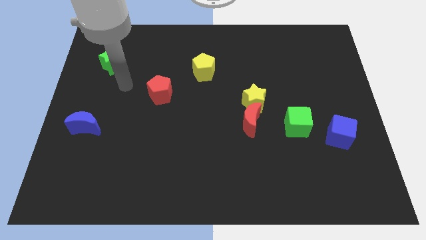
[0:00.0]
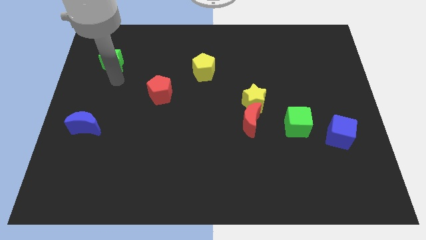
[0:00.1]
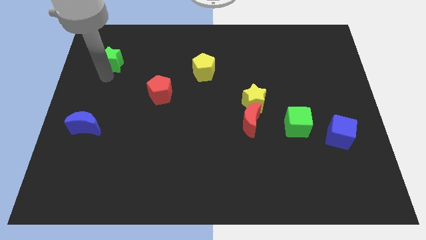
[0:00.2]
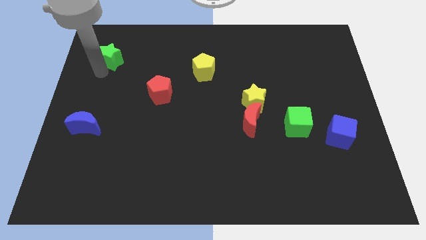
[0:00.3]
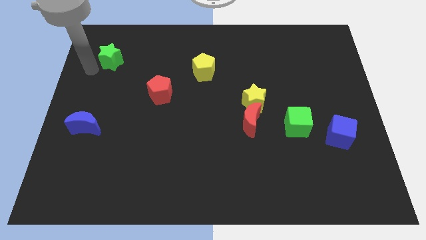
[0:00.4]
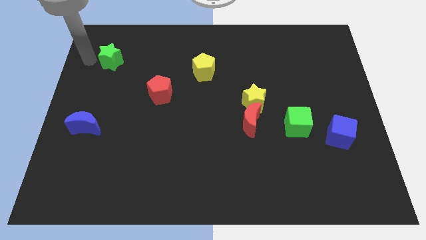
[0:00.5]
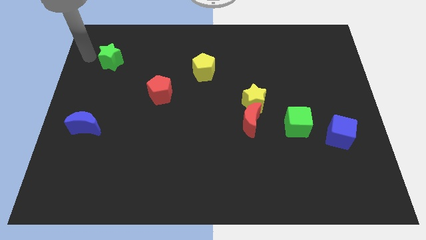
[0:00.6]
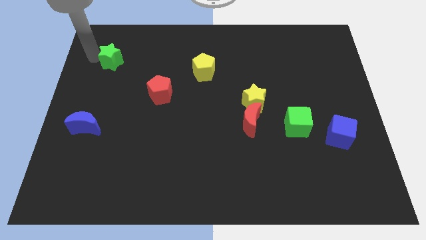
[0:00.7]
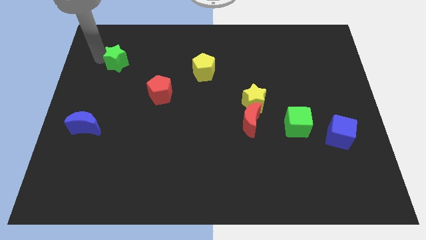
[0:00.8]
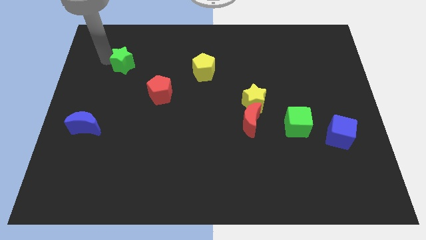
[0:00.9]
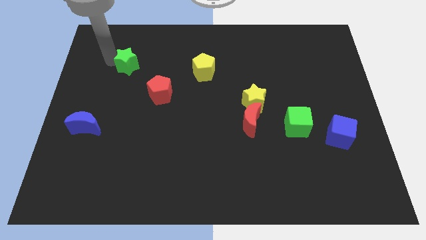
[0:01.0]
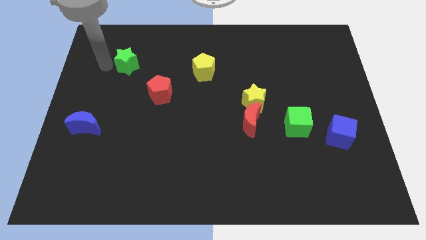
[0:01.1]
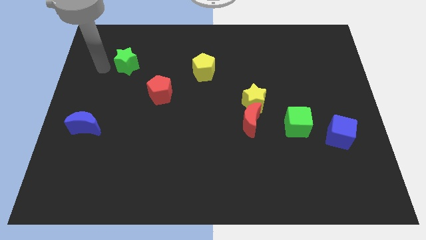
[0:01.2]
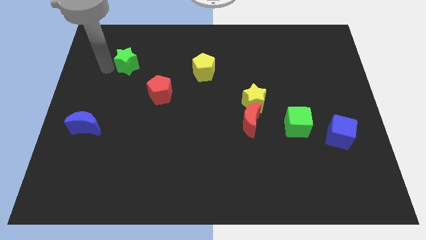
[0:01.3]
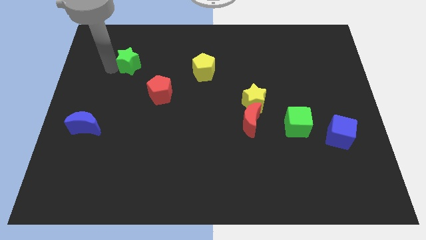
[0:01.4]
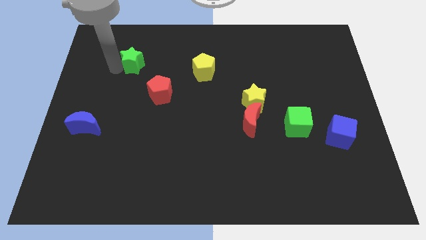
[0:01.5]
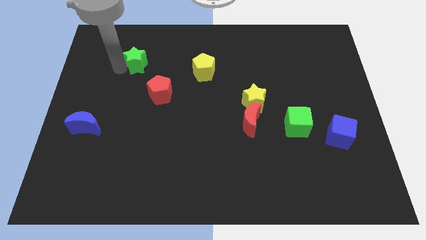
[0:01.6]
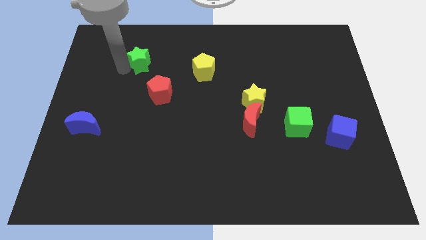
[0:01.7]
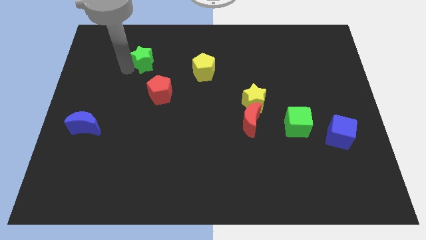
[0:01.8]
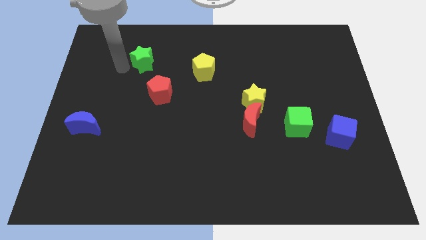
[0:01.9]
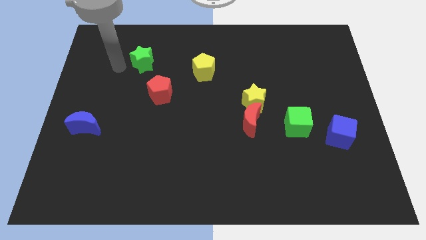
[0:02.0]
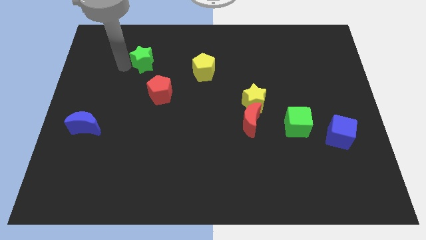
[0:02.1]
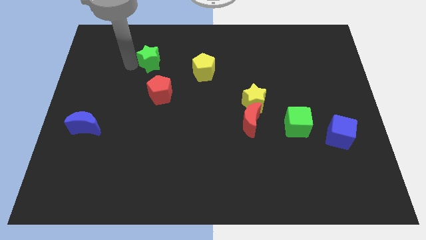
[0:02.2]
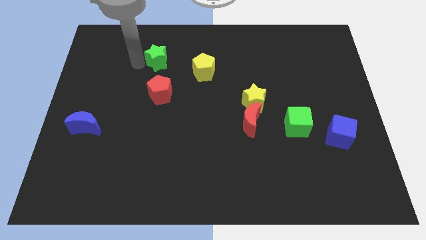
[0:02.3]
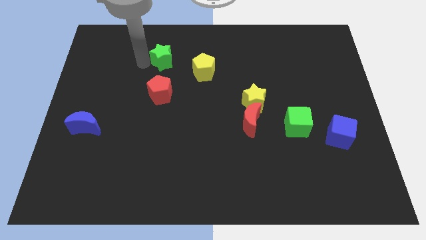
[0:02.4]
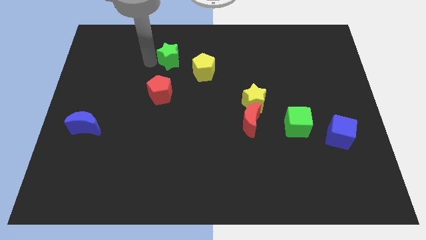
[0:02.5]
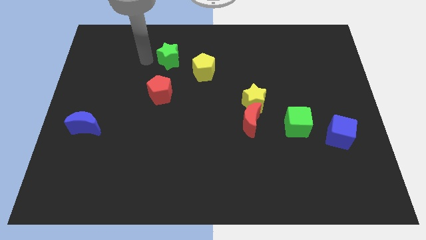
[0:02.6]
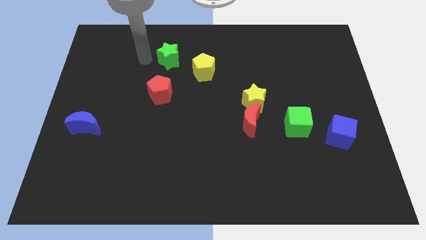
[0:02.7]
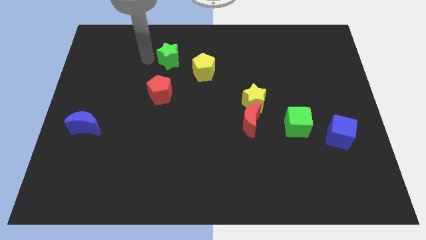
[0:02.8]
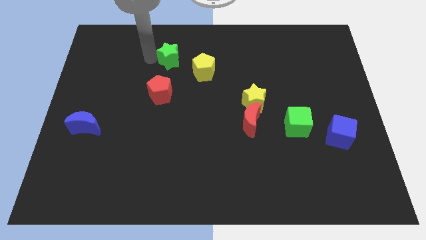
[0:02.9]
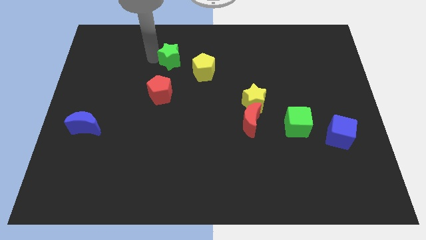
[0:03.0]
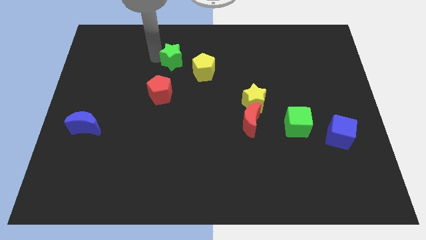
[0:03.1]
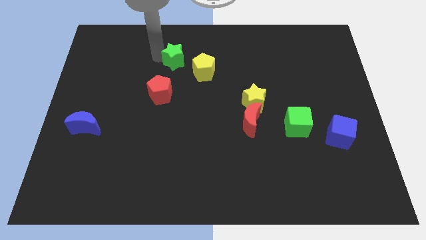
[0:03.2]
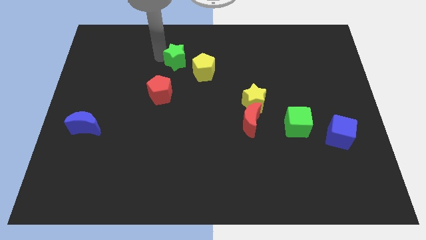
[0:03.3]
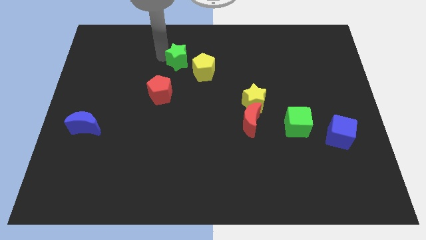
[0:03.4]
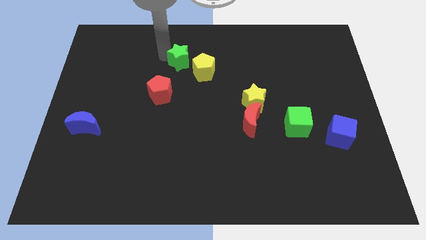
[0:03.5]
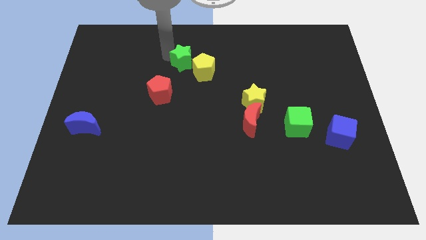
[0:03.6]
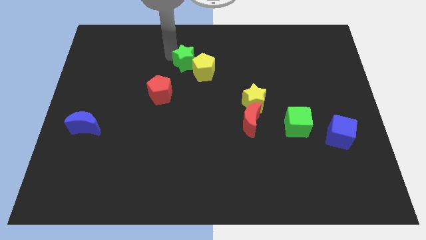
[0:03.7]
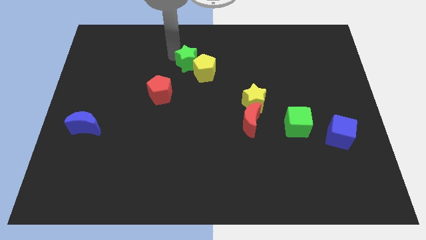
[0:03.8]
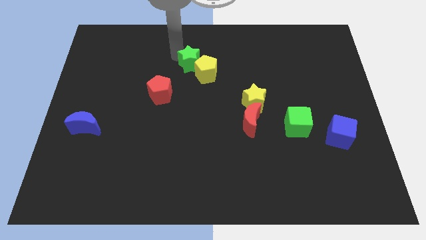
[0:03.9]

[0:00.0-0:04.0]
slide the green star to the right

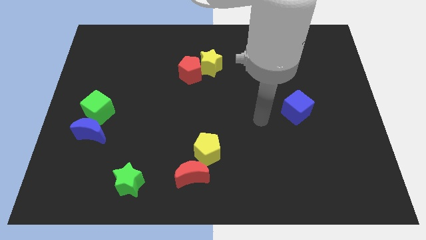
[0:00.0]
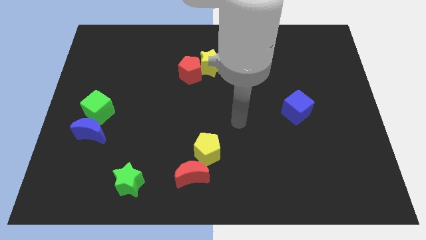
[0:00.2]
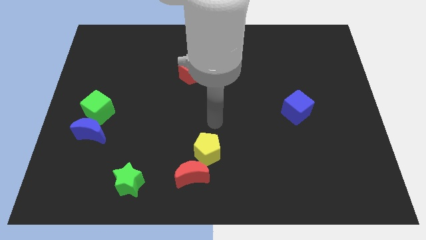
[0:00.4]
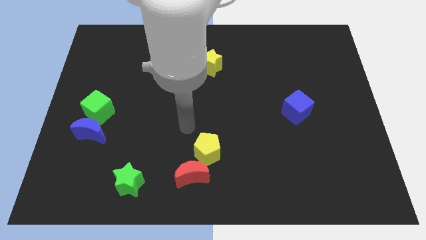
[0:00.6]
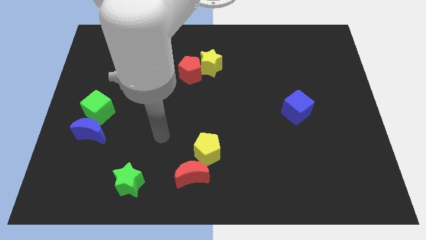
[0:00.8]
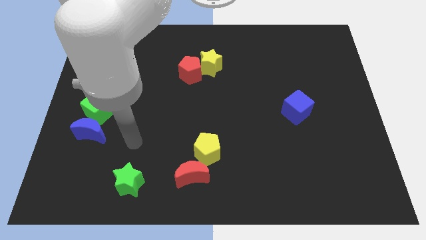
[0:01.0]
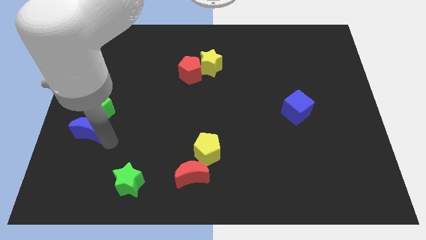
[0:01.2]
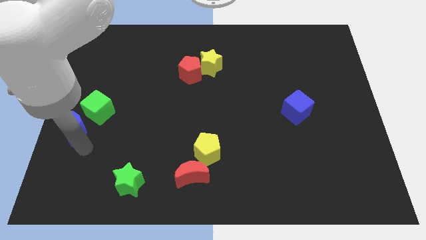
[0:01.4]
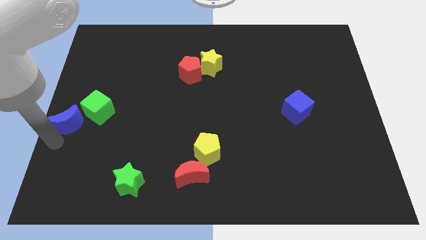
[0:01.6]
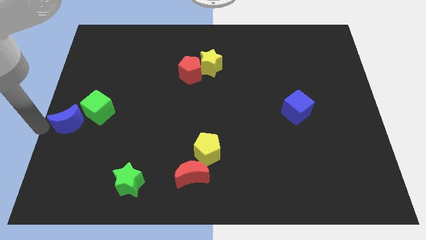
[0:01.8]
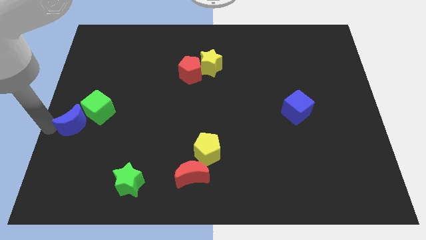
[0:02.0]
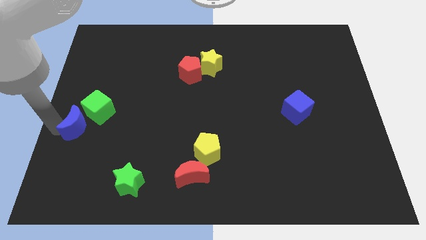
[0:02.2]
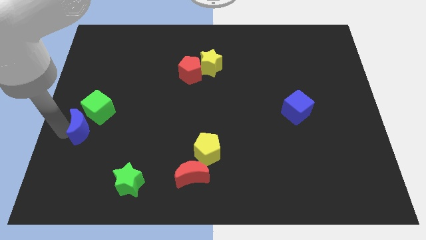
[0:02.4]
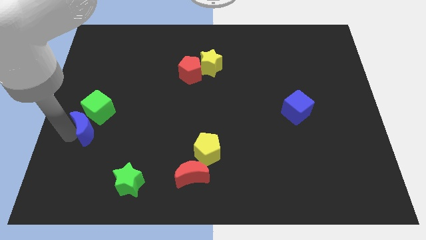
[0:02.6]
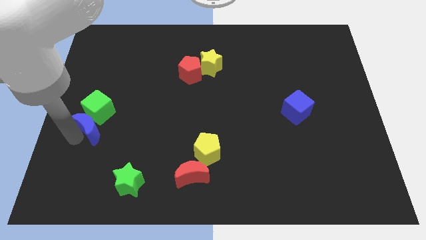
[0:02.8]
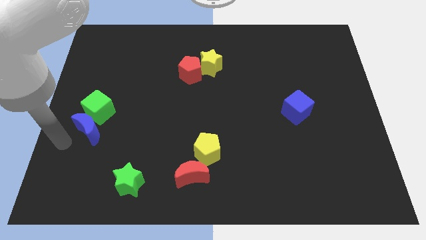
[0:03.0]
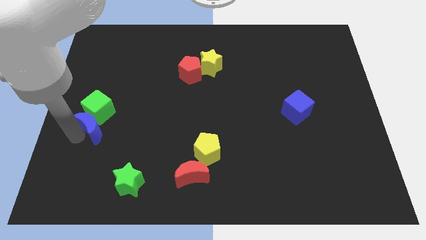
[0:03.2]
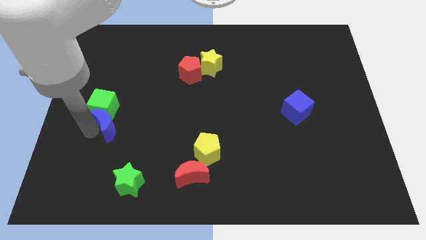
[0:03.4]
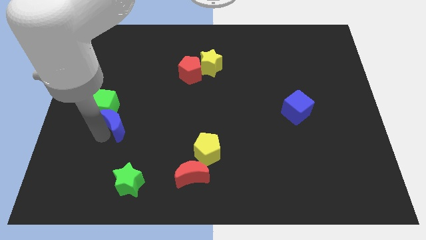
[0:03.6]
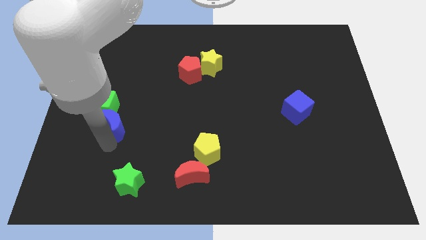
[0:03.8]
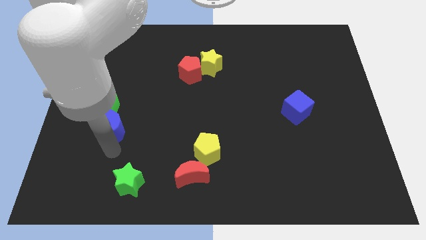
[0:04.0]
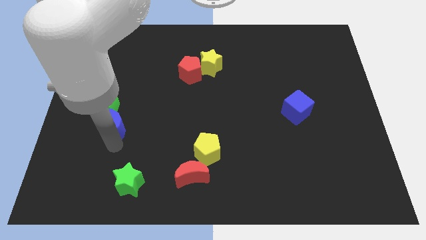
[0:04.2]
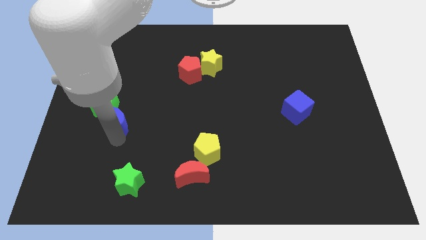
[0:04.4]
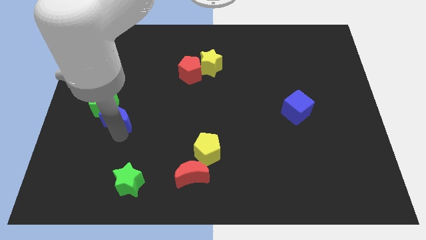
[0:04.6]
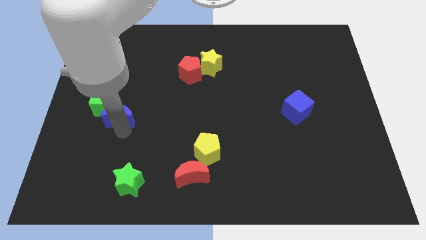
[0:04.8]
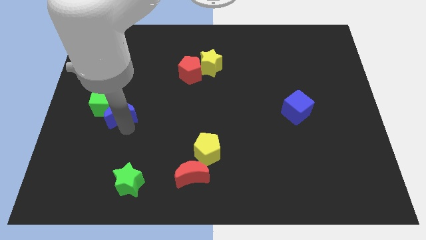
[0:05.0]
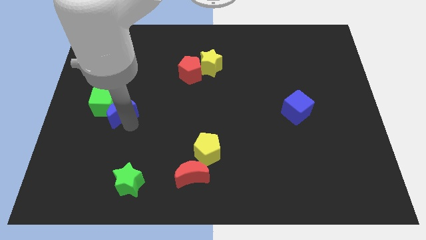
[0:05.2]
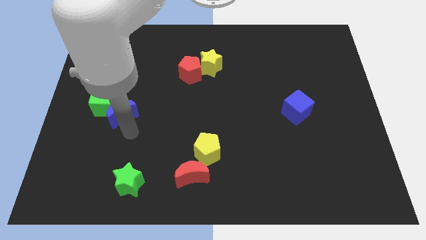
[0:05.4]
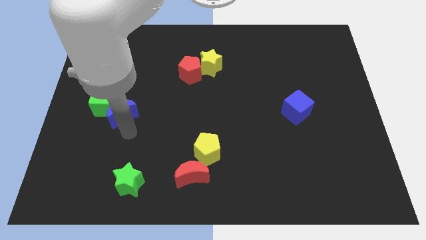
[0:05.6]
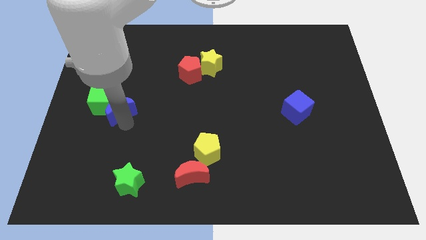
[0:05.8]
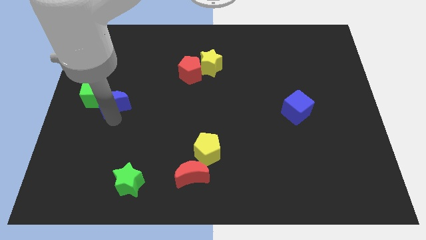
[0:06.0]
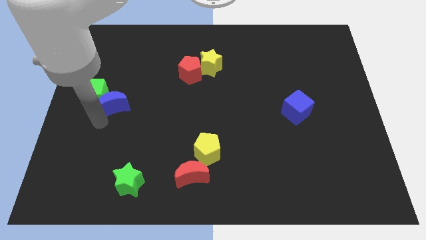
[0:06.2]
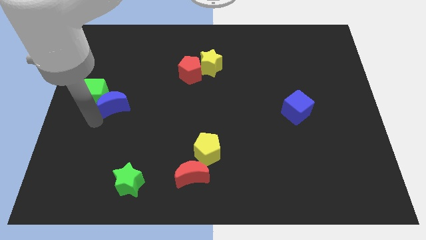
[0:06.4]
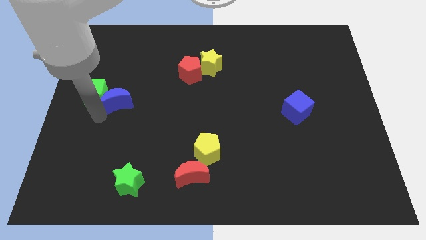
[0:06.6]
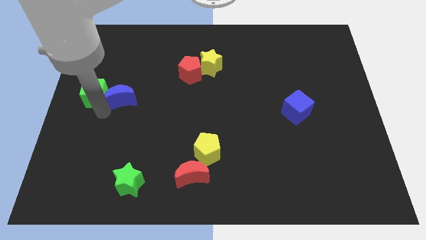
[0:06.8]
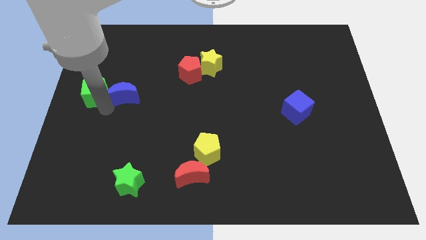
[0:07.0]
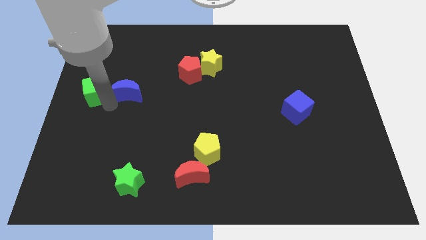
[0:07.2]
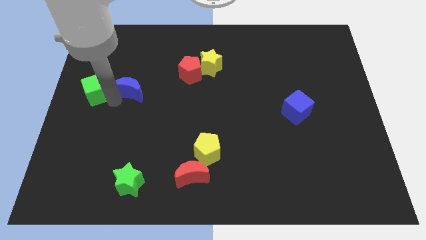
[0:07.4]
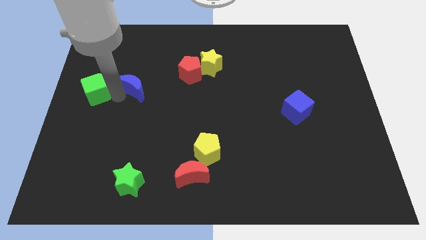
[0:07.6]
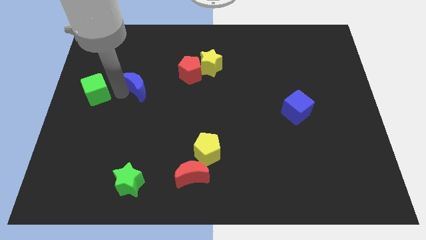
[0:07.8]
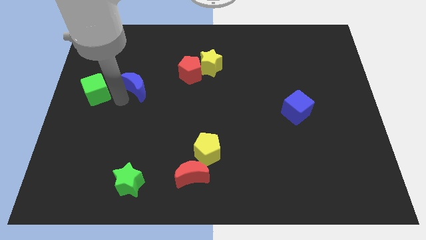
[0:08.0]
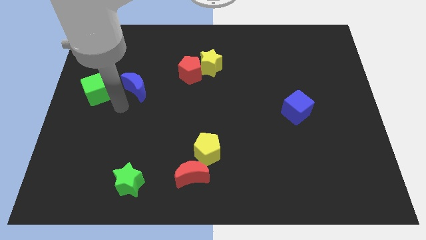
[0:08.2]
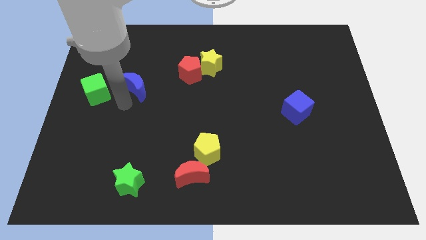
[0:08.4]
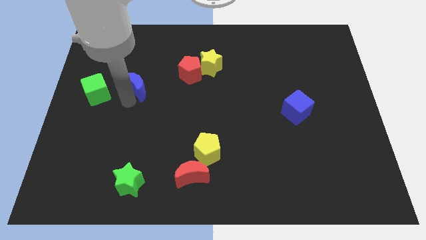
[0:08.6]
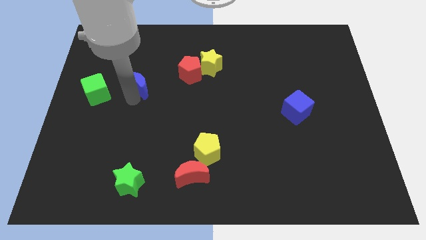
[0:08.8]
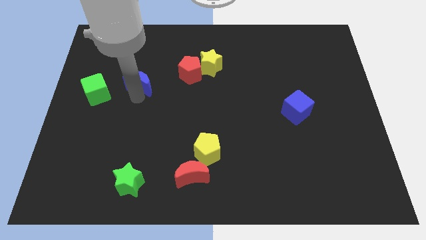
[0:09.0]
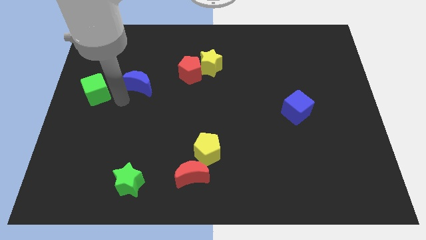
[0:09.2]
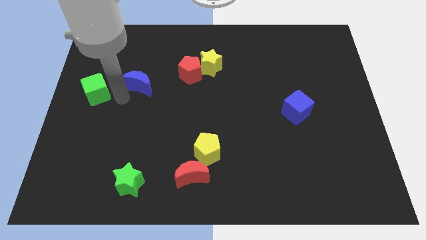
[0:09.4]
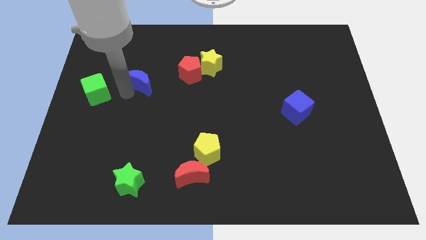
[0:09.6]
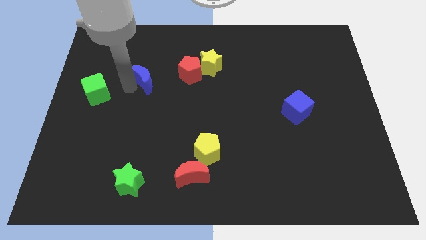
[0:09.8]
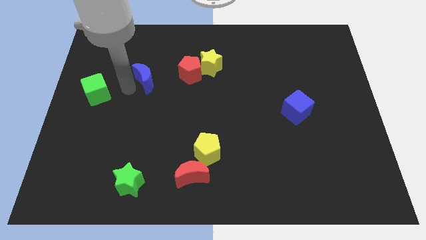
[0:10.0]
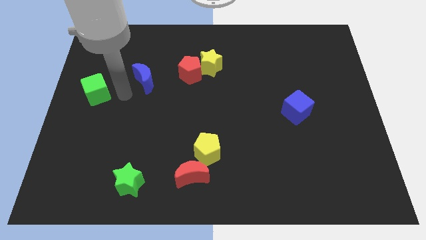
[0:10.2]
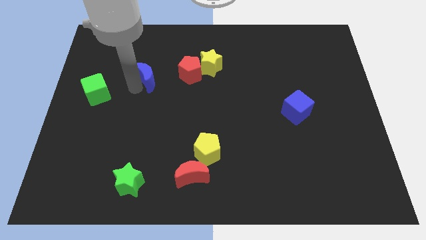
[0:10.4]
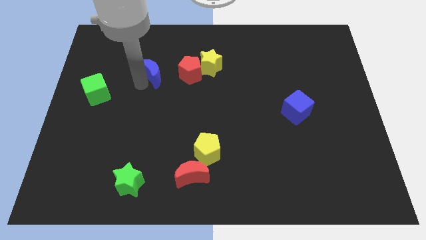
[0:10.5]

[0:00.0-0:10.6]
push the blue moon up and right diagonally
